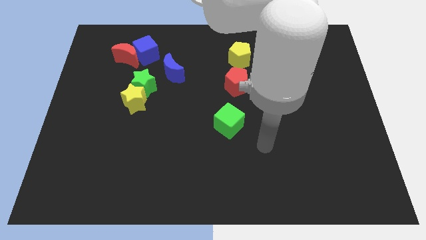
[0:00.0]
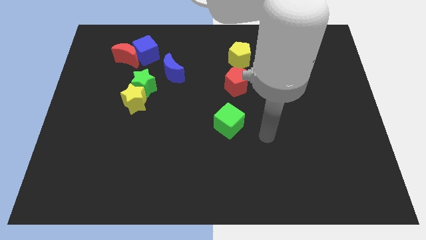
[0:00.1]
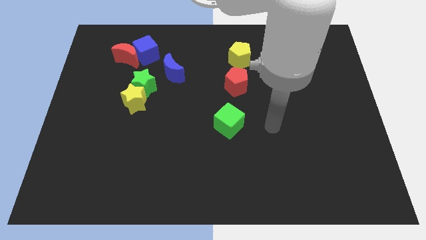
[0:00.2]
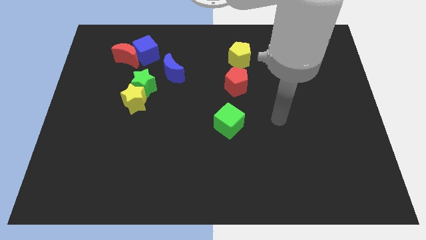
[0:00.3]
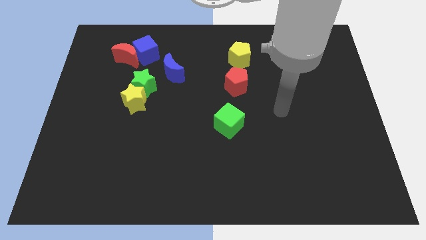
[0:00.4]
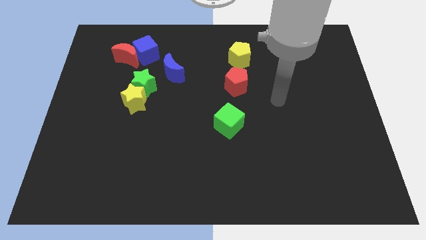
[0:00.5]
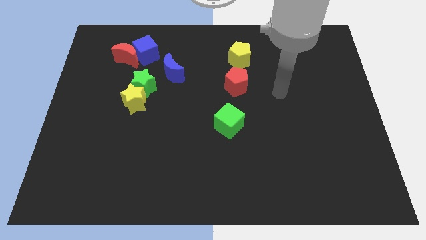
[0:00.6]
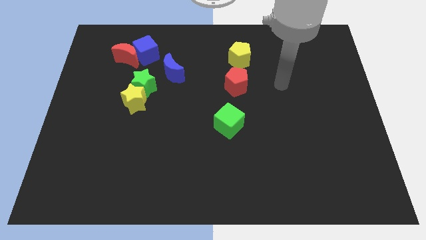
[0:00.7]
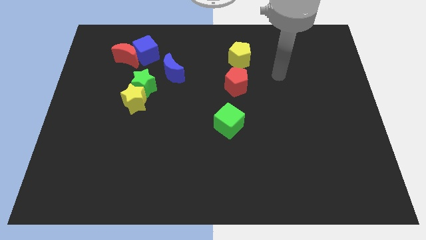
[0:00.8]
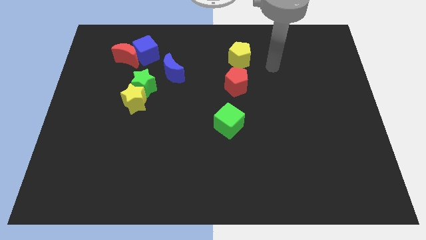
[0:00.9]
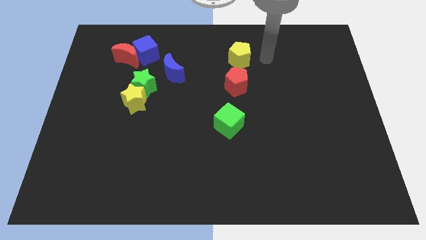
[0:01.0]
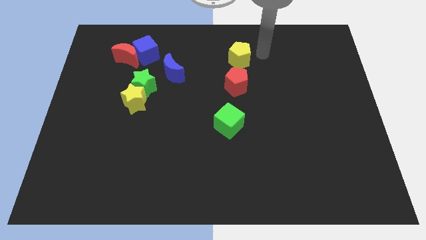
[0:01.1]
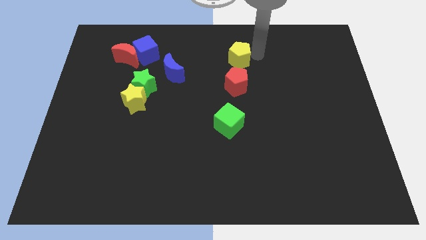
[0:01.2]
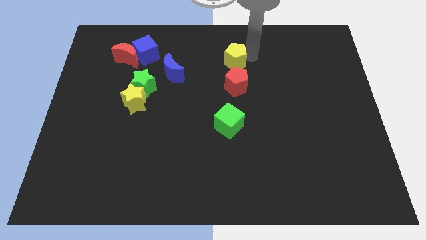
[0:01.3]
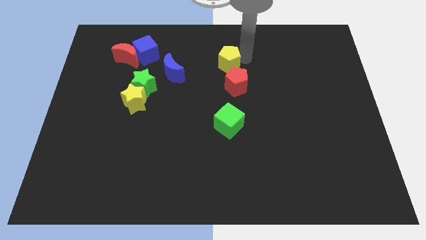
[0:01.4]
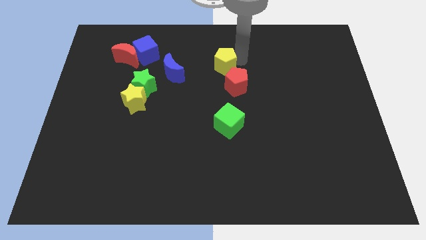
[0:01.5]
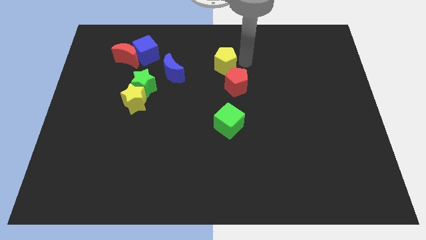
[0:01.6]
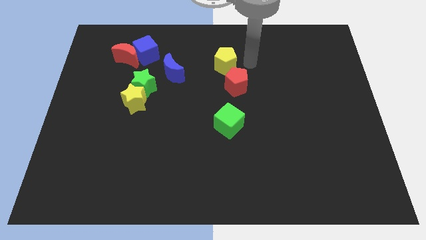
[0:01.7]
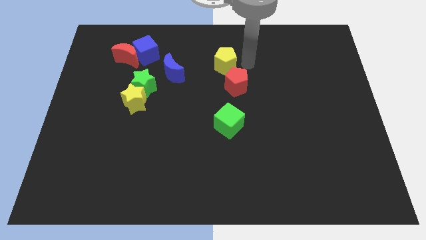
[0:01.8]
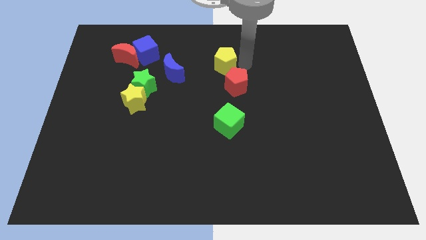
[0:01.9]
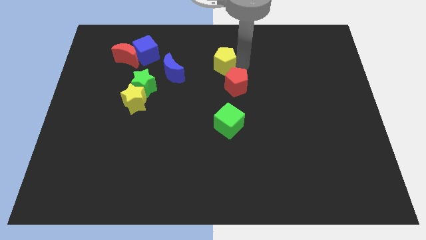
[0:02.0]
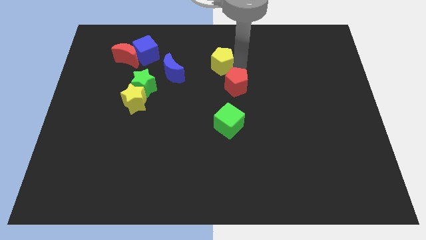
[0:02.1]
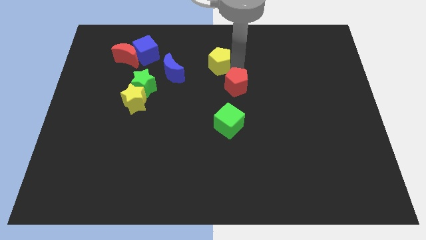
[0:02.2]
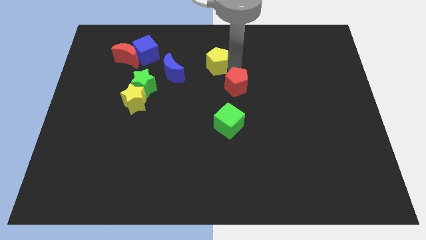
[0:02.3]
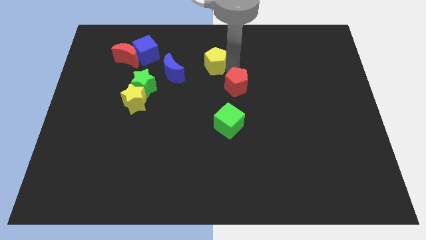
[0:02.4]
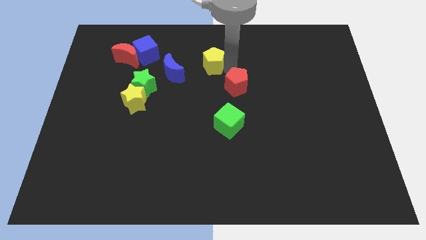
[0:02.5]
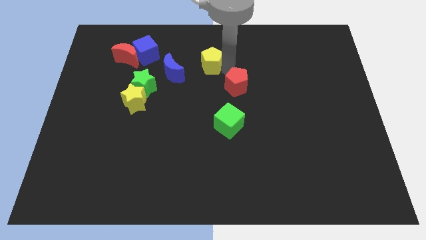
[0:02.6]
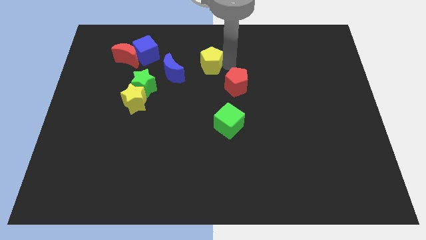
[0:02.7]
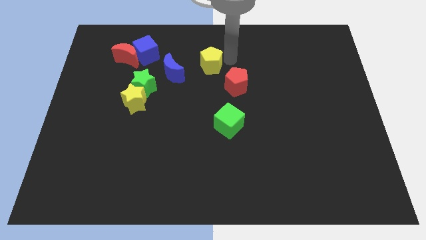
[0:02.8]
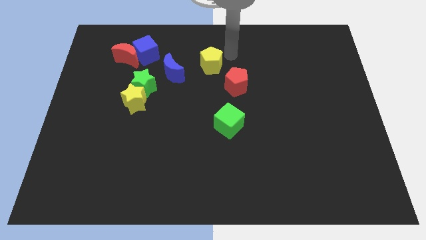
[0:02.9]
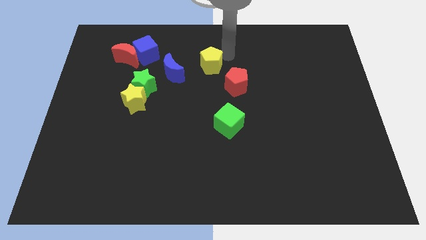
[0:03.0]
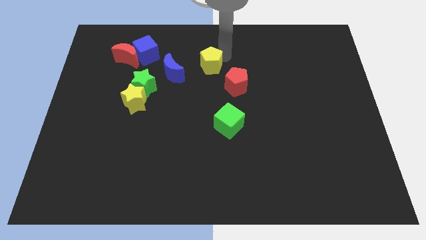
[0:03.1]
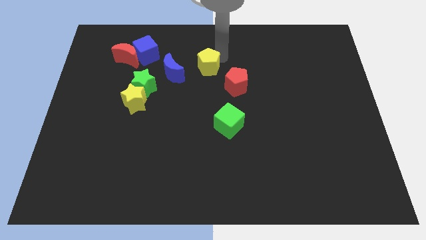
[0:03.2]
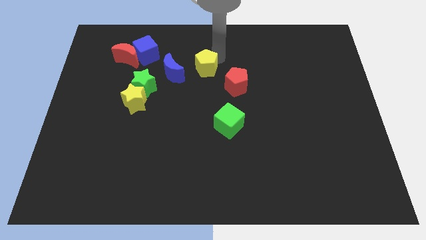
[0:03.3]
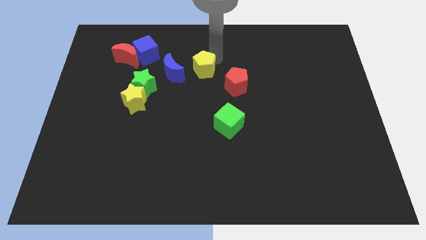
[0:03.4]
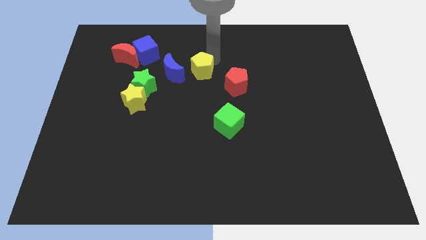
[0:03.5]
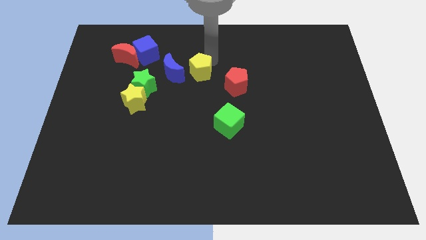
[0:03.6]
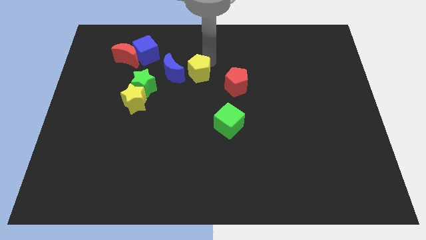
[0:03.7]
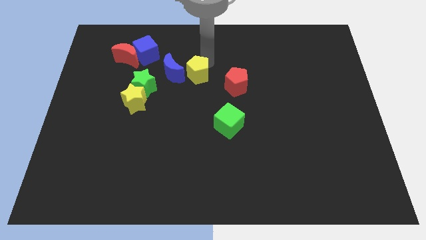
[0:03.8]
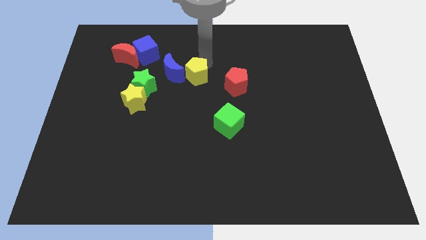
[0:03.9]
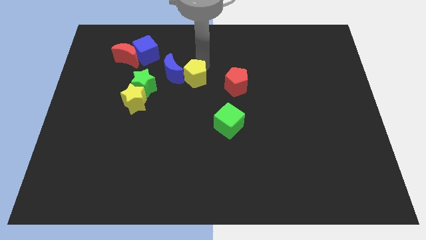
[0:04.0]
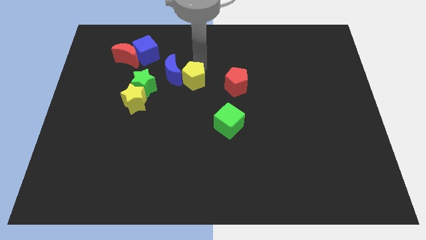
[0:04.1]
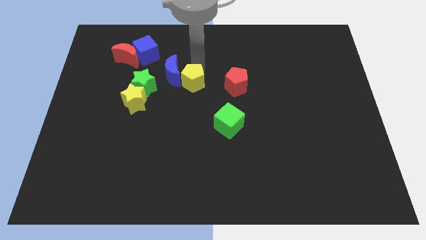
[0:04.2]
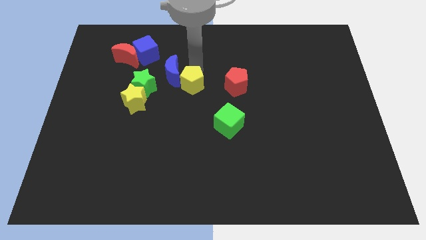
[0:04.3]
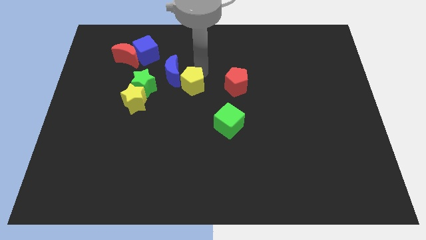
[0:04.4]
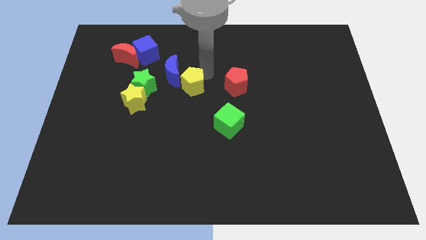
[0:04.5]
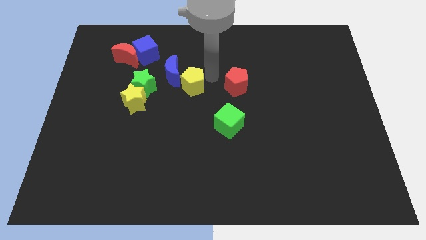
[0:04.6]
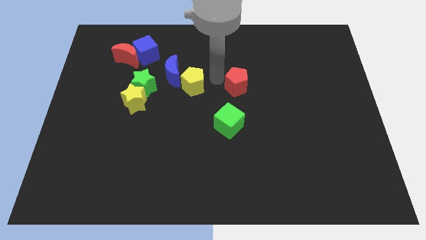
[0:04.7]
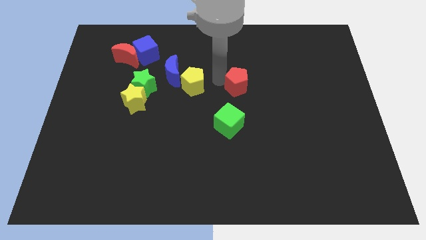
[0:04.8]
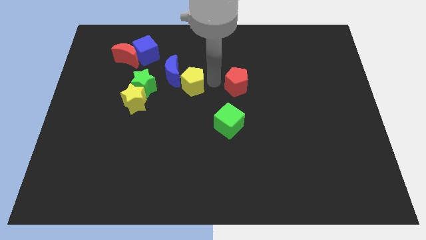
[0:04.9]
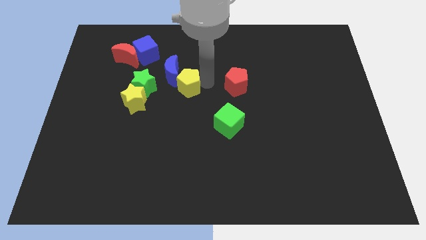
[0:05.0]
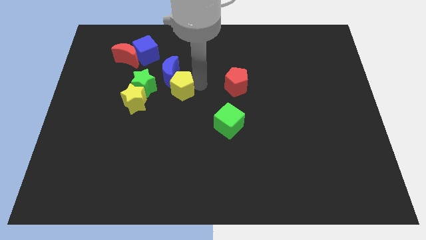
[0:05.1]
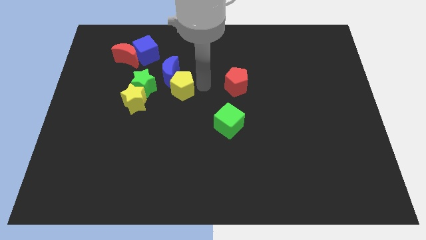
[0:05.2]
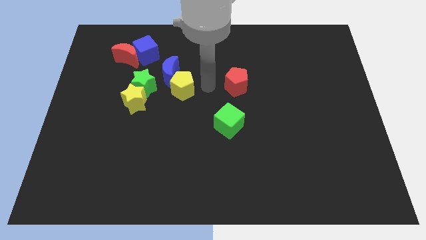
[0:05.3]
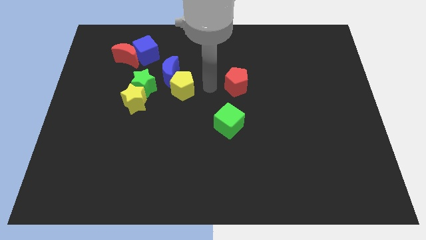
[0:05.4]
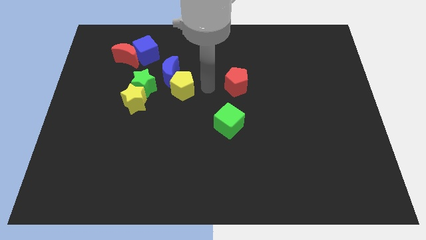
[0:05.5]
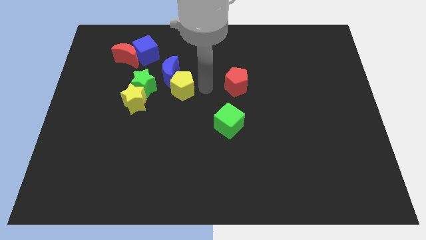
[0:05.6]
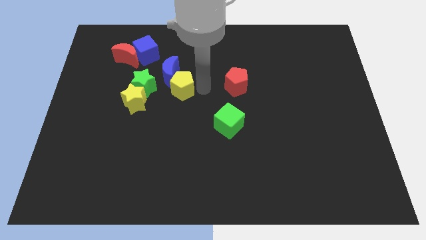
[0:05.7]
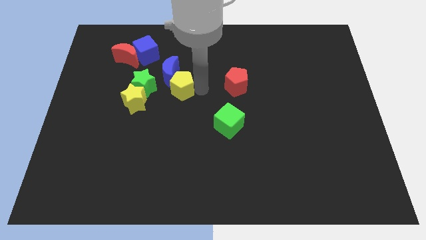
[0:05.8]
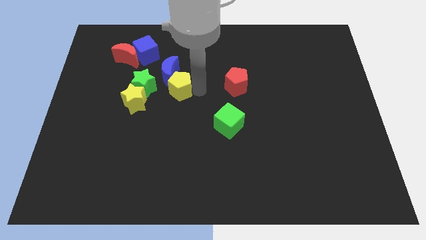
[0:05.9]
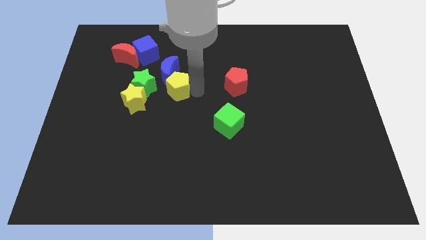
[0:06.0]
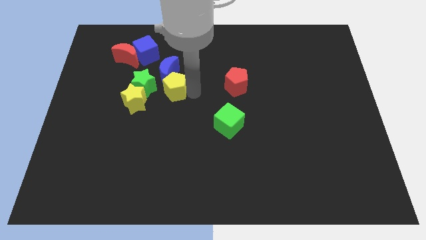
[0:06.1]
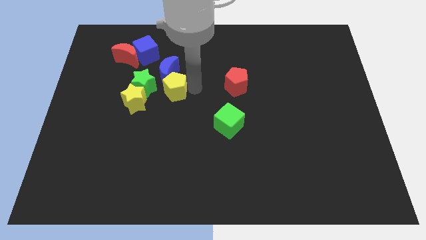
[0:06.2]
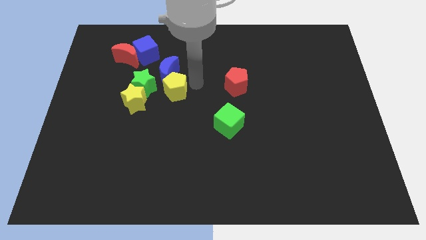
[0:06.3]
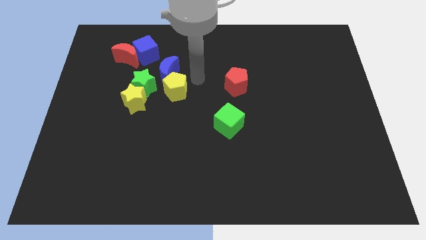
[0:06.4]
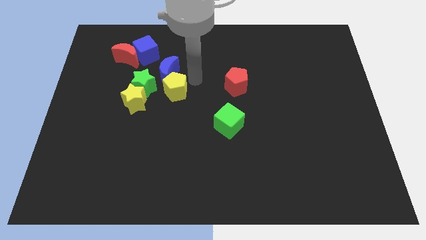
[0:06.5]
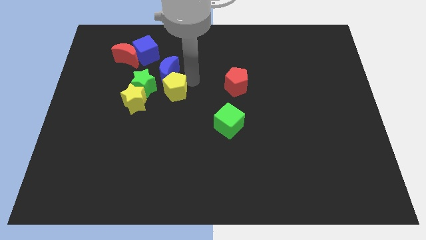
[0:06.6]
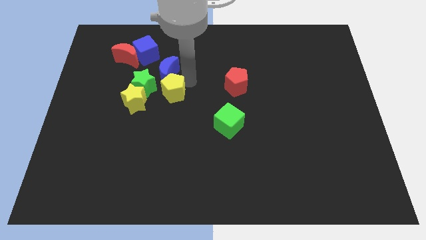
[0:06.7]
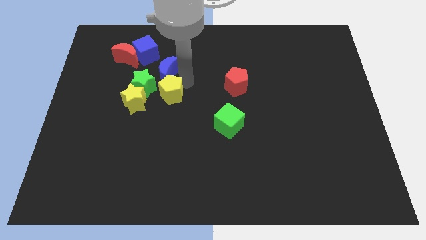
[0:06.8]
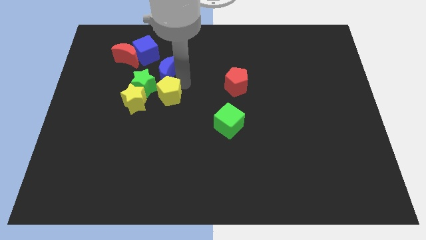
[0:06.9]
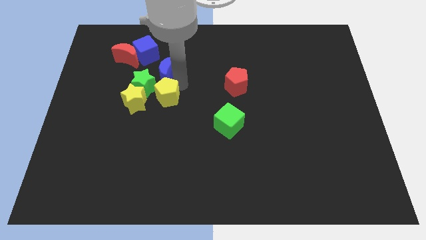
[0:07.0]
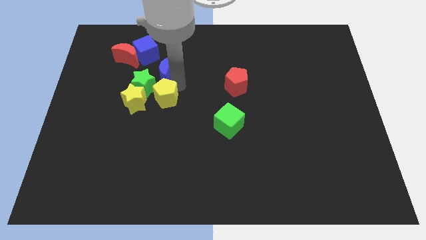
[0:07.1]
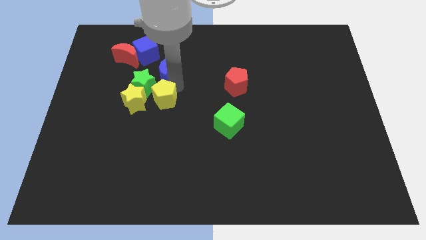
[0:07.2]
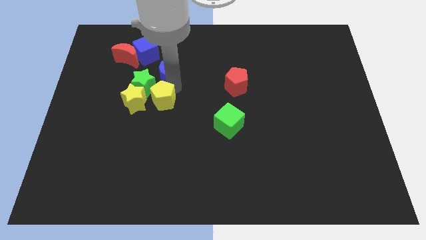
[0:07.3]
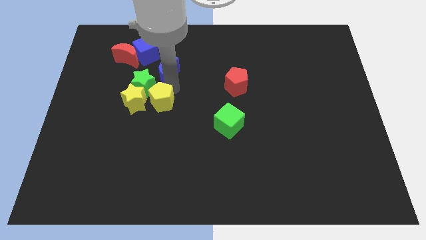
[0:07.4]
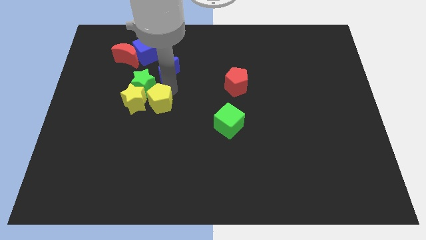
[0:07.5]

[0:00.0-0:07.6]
move the yellow pentagon close to the yellow star
